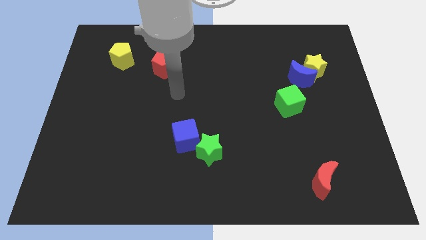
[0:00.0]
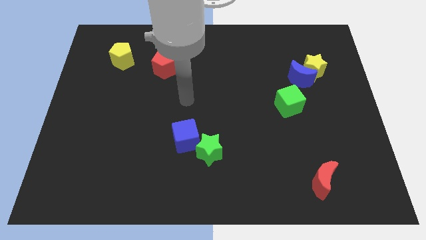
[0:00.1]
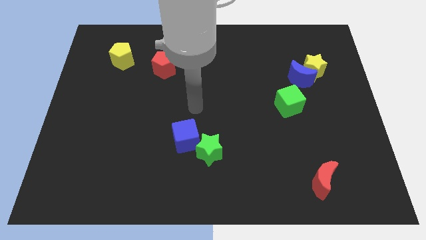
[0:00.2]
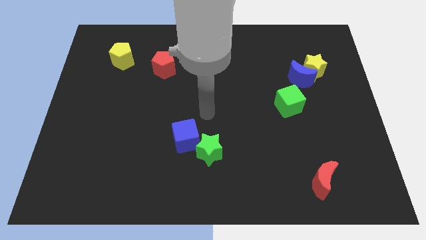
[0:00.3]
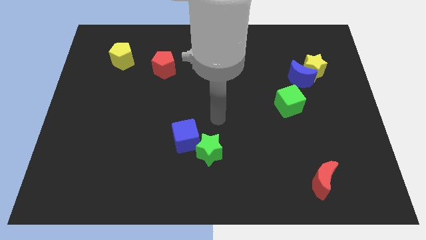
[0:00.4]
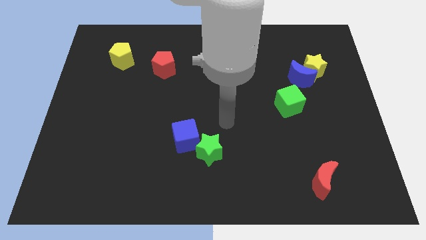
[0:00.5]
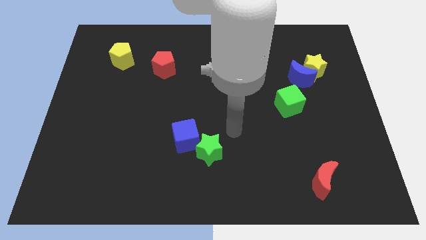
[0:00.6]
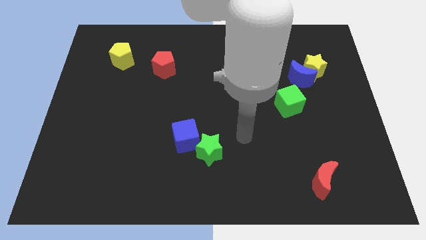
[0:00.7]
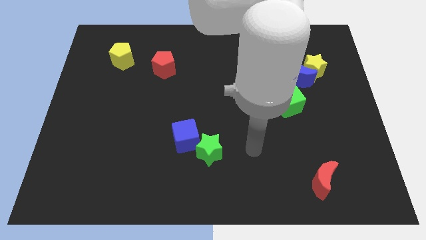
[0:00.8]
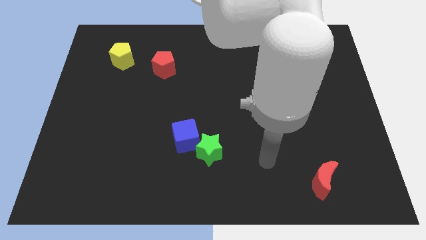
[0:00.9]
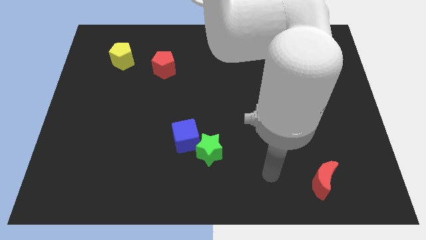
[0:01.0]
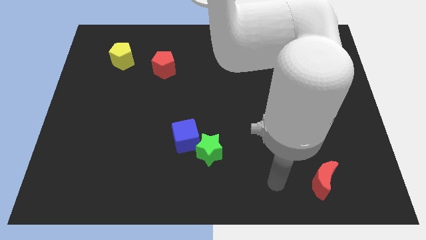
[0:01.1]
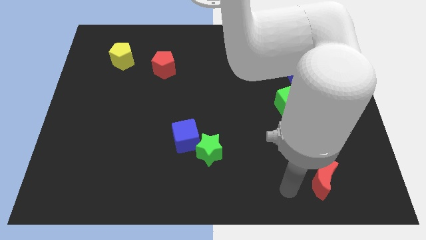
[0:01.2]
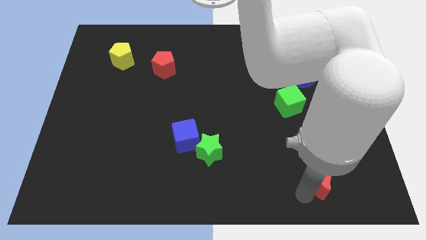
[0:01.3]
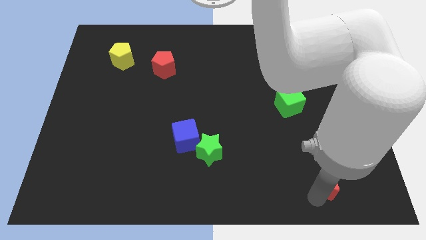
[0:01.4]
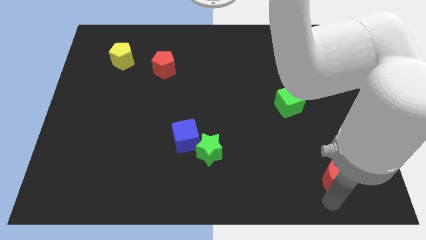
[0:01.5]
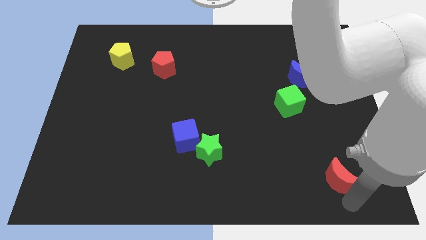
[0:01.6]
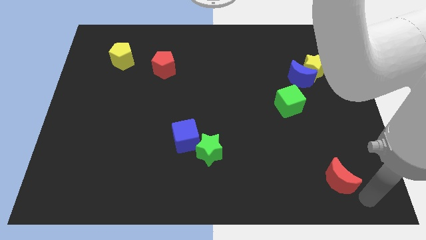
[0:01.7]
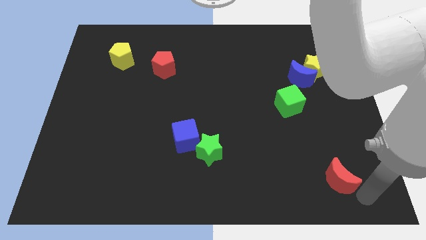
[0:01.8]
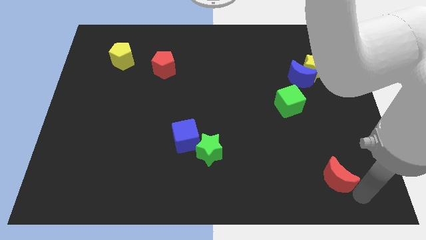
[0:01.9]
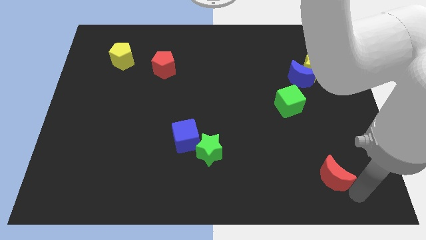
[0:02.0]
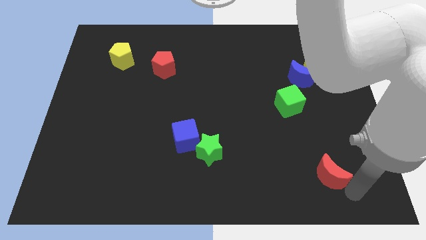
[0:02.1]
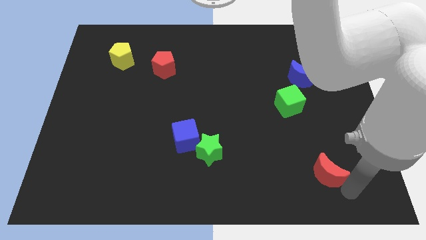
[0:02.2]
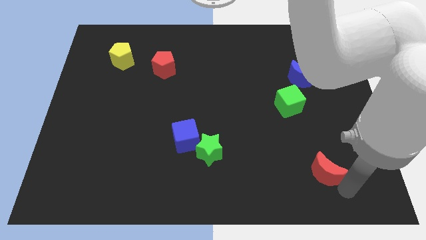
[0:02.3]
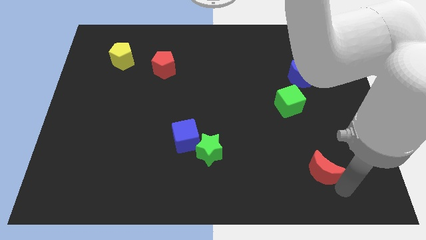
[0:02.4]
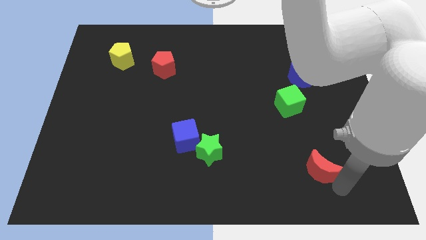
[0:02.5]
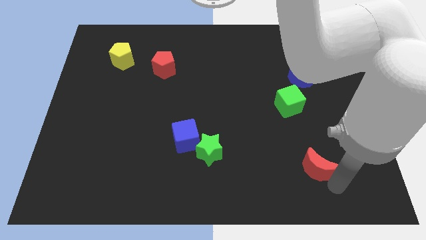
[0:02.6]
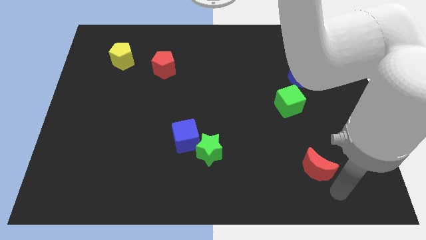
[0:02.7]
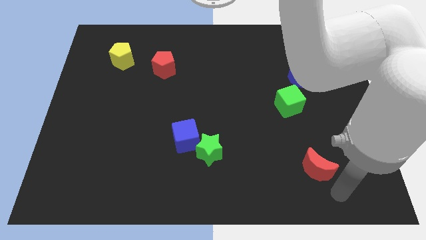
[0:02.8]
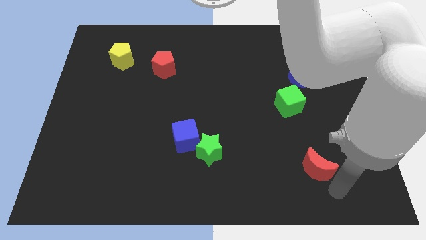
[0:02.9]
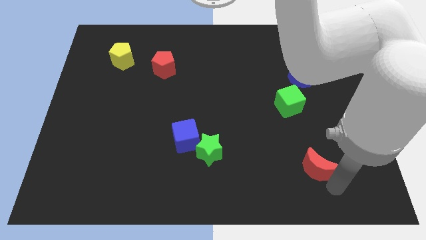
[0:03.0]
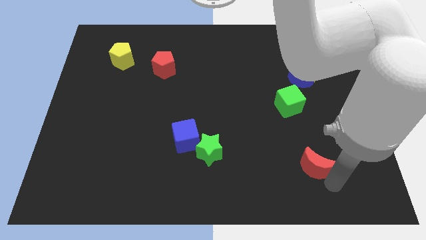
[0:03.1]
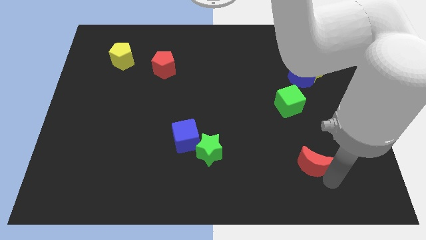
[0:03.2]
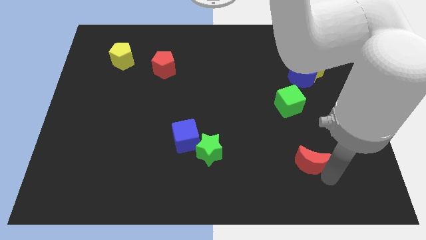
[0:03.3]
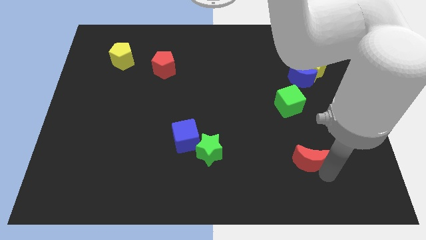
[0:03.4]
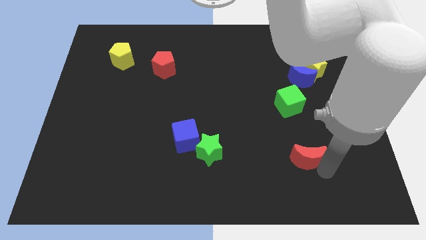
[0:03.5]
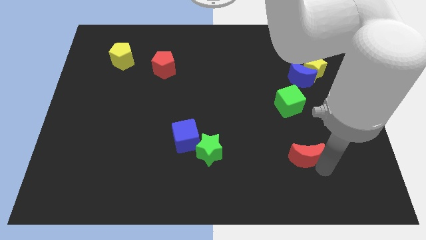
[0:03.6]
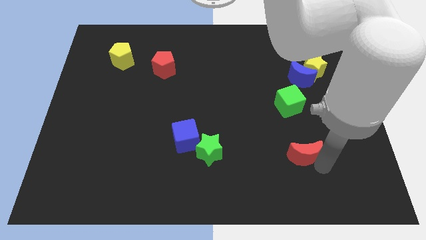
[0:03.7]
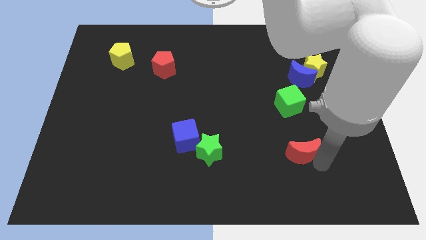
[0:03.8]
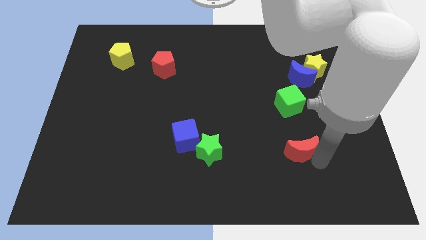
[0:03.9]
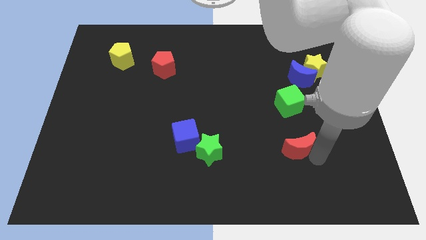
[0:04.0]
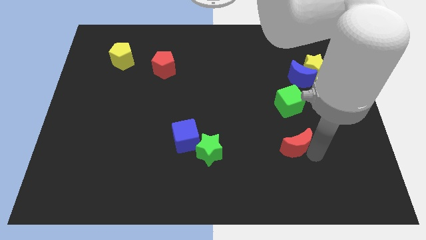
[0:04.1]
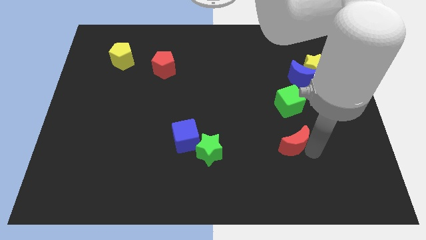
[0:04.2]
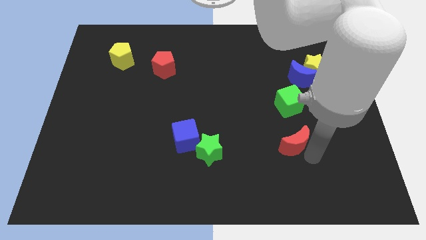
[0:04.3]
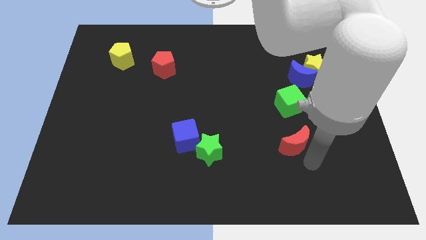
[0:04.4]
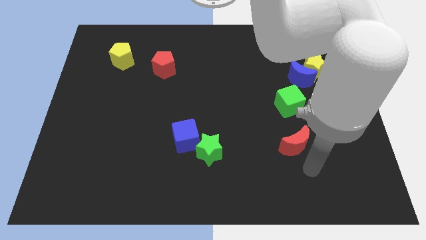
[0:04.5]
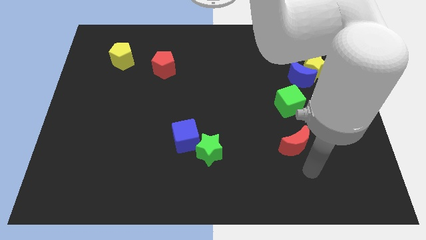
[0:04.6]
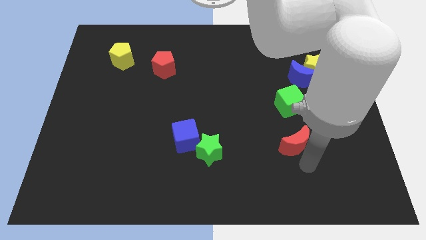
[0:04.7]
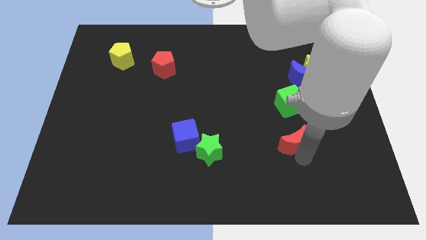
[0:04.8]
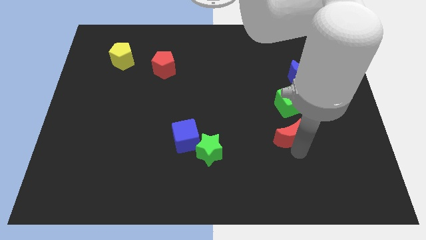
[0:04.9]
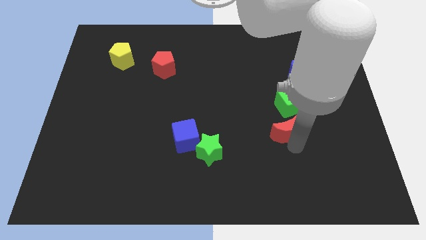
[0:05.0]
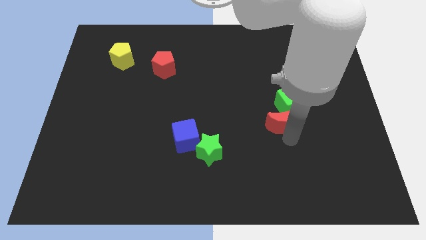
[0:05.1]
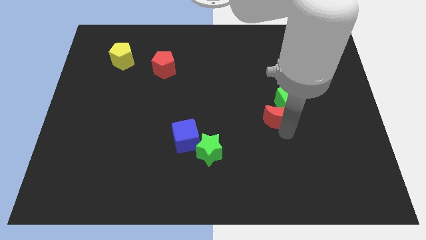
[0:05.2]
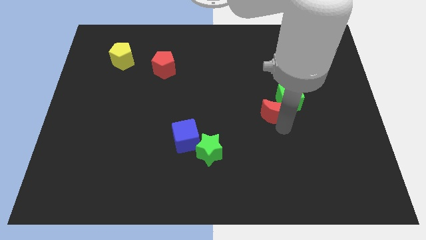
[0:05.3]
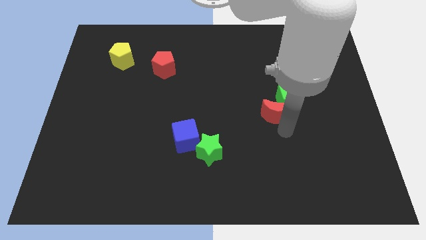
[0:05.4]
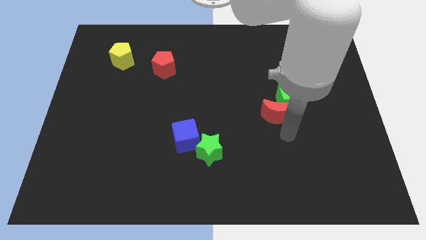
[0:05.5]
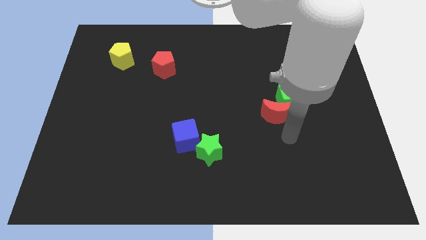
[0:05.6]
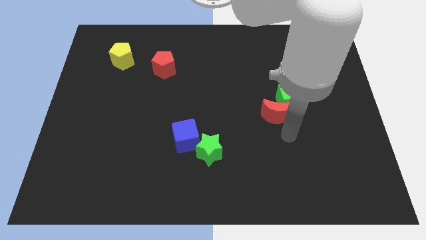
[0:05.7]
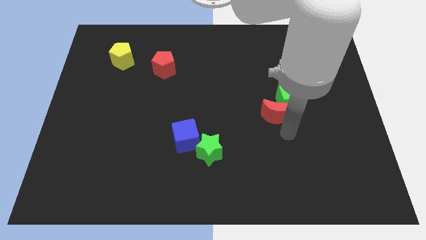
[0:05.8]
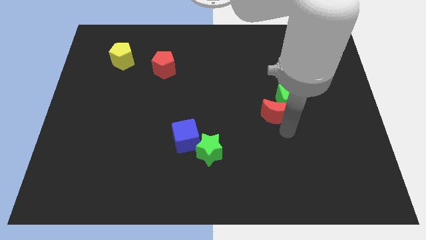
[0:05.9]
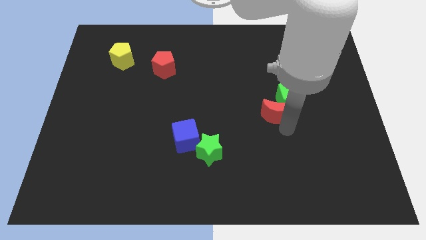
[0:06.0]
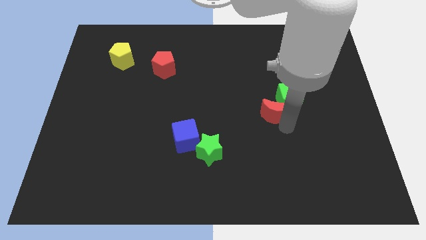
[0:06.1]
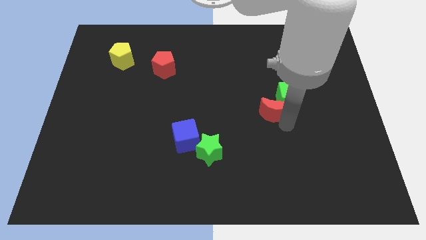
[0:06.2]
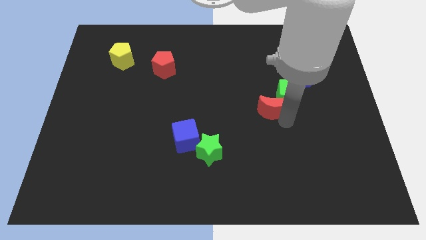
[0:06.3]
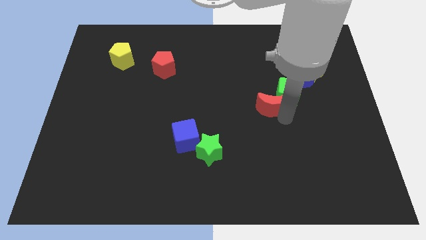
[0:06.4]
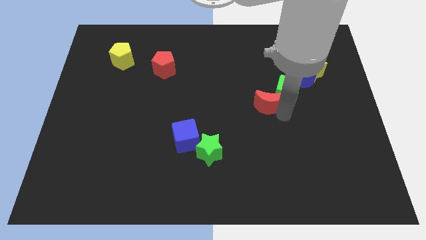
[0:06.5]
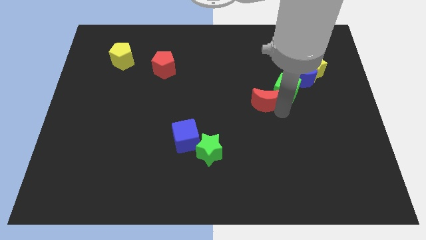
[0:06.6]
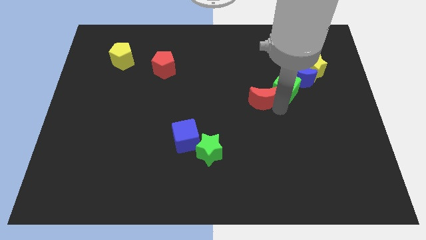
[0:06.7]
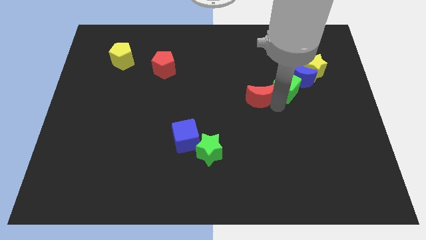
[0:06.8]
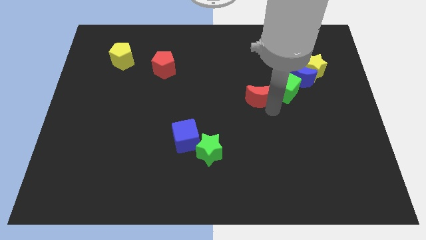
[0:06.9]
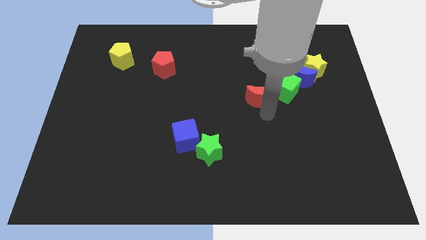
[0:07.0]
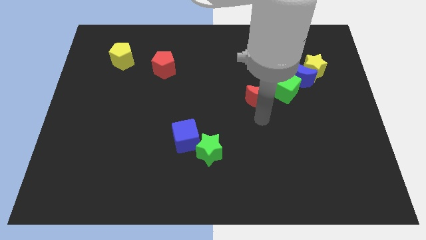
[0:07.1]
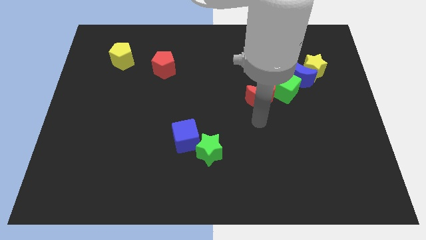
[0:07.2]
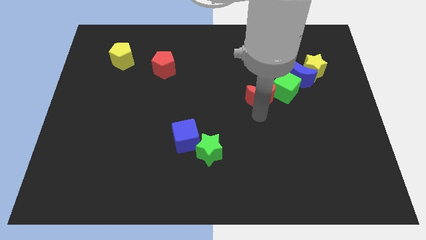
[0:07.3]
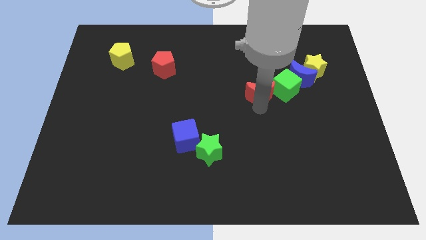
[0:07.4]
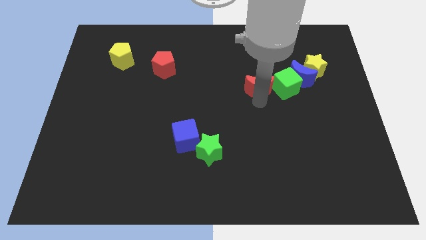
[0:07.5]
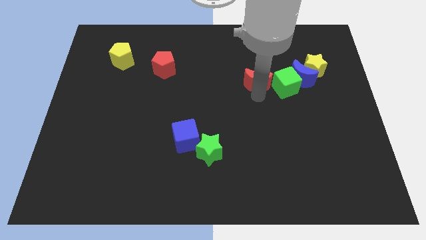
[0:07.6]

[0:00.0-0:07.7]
put the red moon to the top left of the green cube
